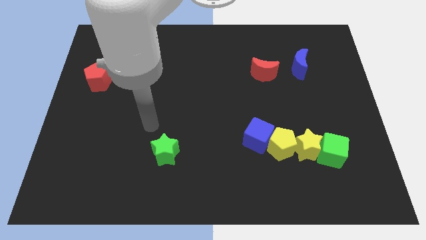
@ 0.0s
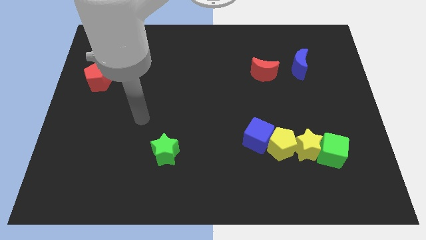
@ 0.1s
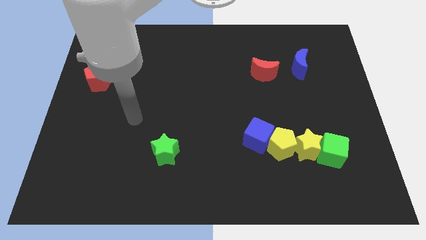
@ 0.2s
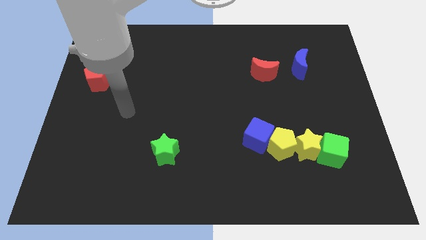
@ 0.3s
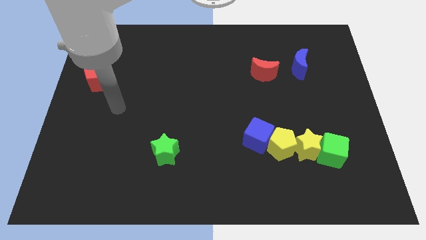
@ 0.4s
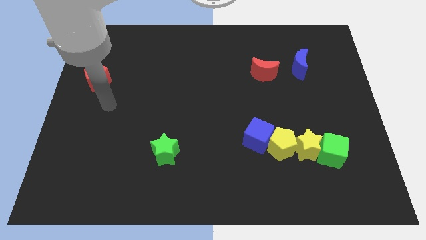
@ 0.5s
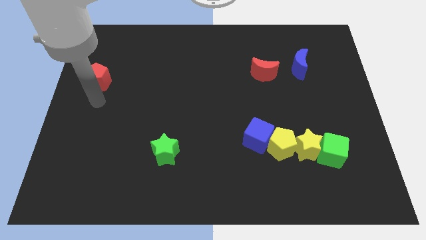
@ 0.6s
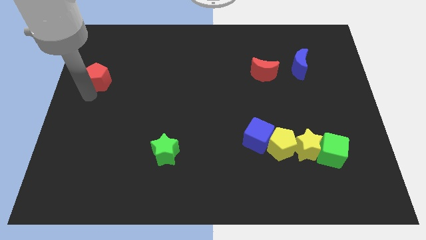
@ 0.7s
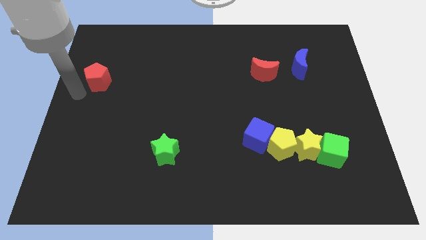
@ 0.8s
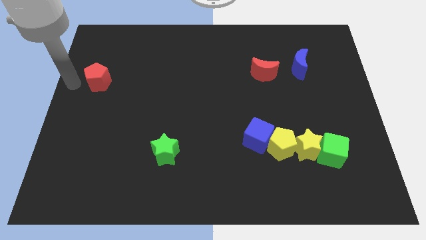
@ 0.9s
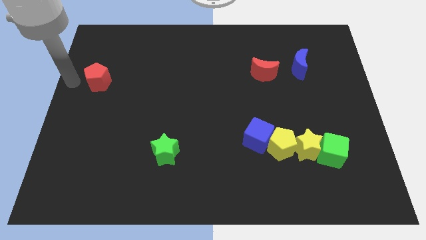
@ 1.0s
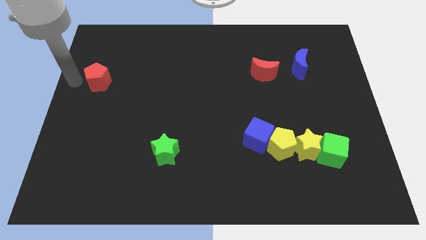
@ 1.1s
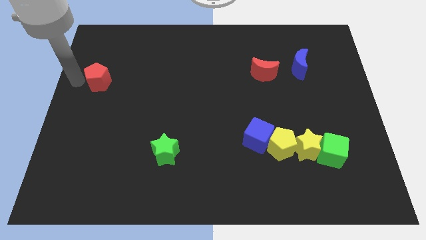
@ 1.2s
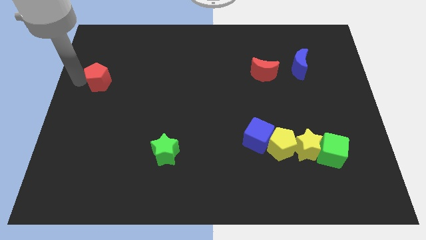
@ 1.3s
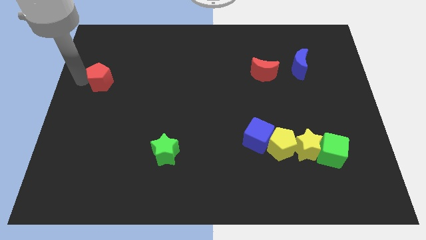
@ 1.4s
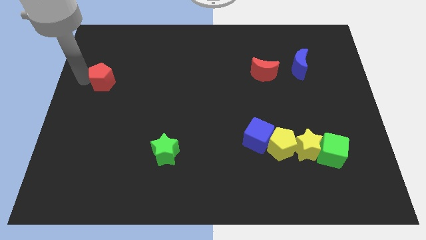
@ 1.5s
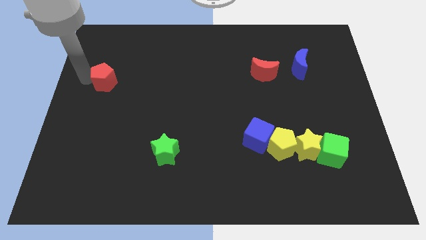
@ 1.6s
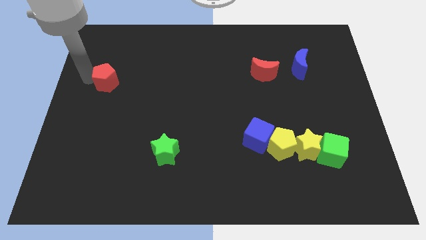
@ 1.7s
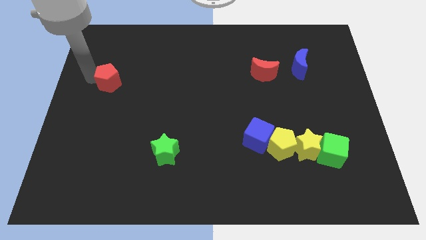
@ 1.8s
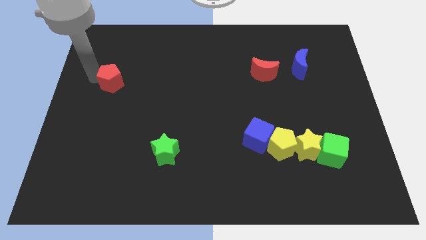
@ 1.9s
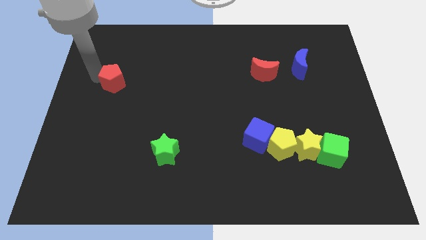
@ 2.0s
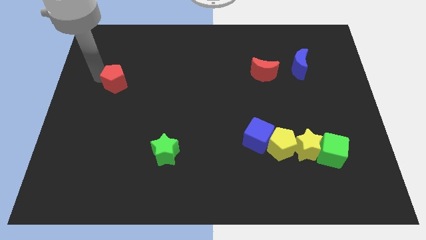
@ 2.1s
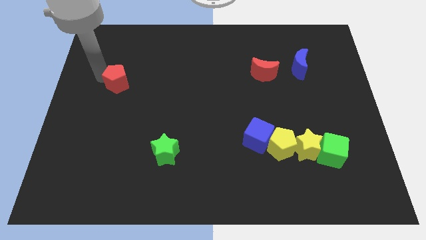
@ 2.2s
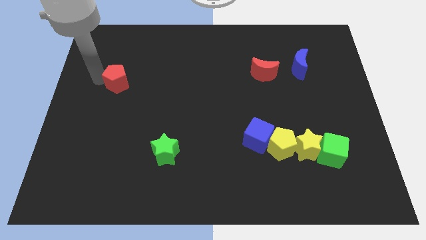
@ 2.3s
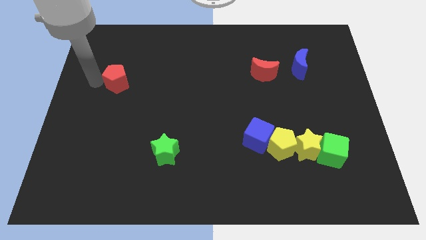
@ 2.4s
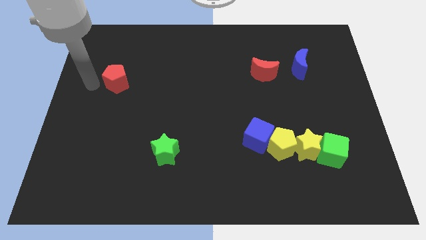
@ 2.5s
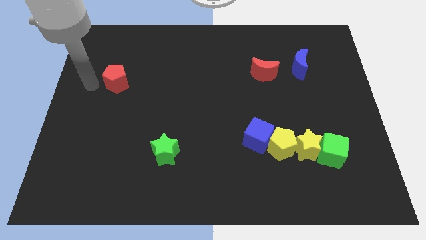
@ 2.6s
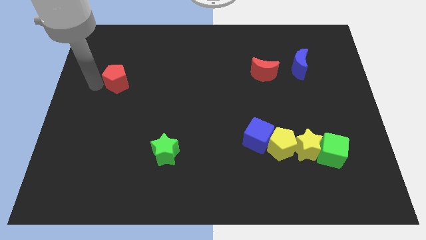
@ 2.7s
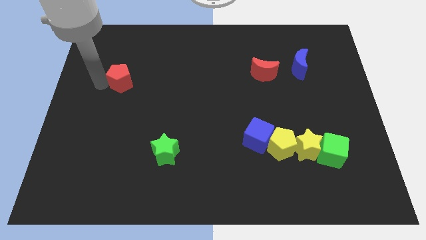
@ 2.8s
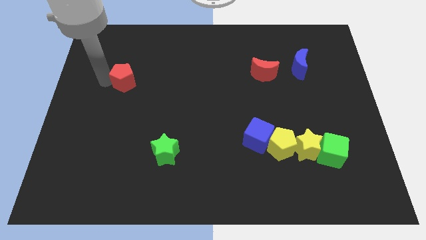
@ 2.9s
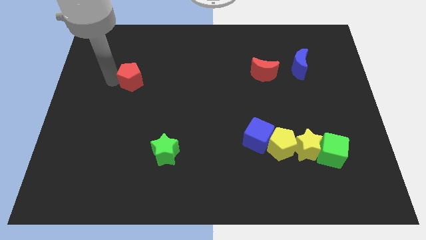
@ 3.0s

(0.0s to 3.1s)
move the red pentagon to the right somewhat

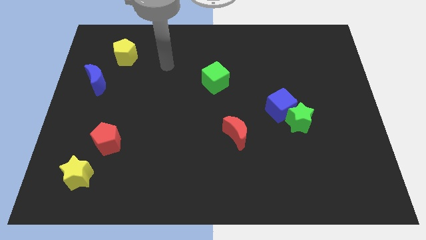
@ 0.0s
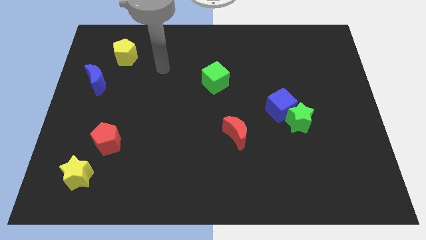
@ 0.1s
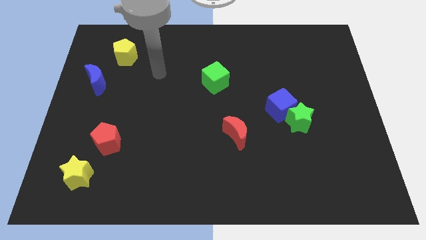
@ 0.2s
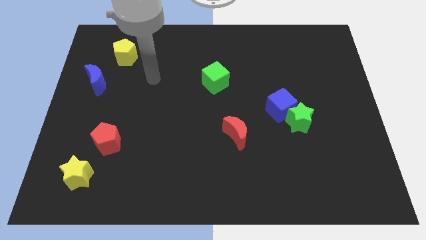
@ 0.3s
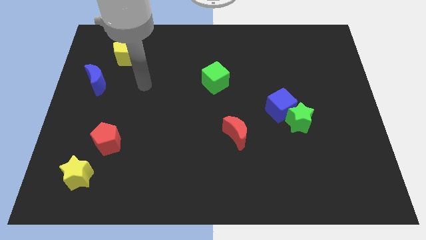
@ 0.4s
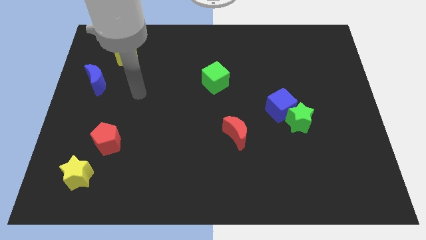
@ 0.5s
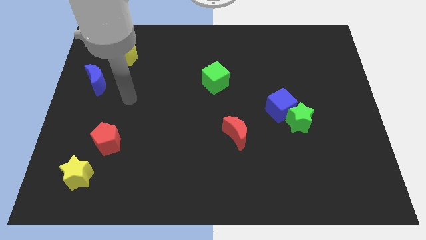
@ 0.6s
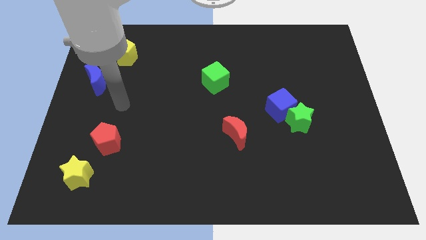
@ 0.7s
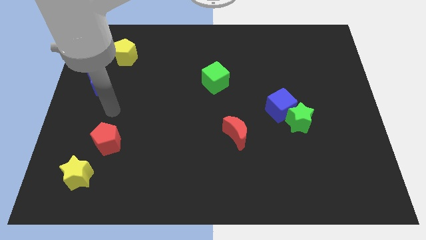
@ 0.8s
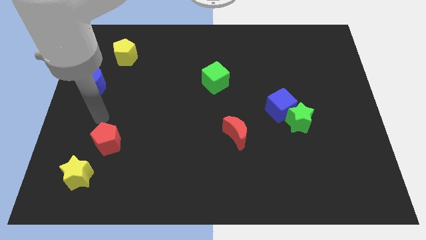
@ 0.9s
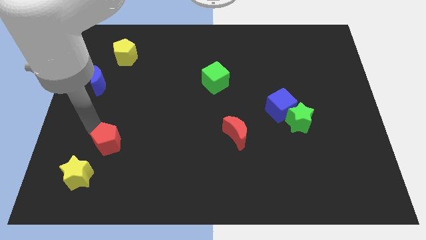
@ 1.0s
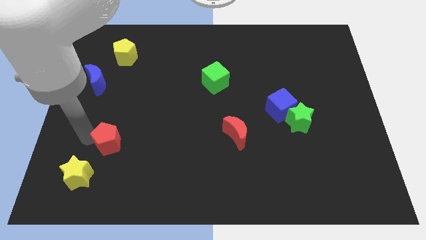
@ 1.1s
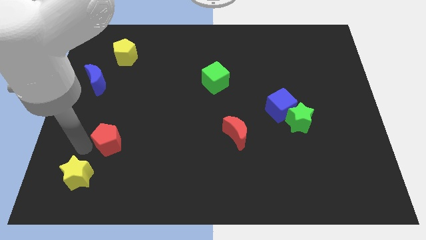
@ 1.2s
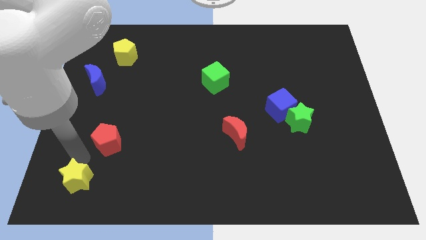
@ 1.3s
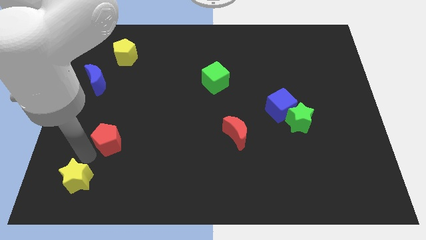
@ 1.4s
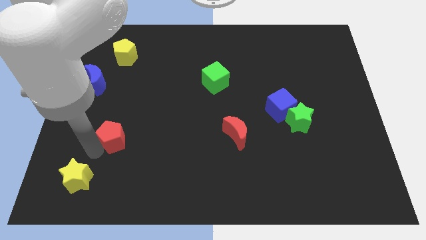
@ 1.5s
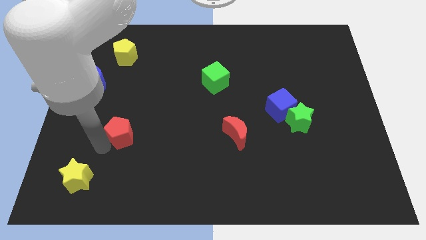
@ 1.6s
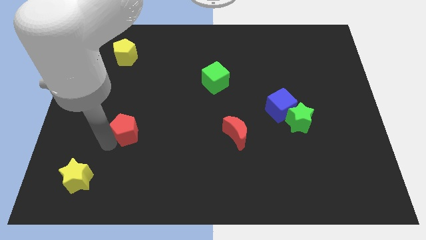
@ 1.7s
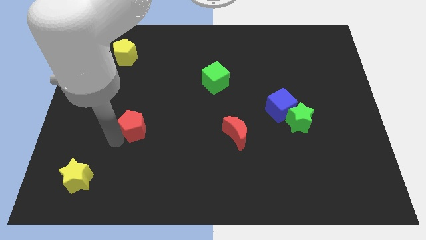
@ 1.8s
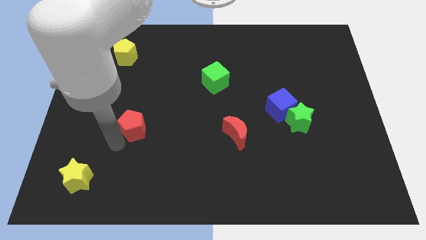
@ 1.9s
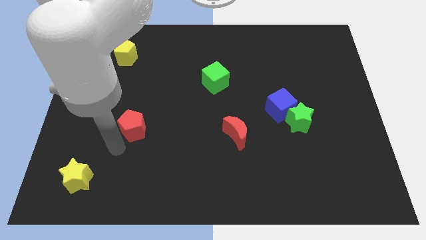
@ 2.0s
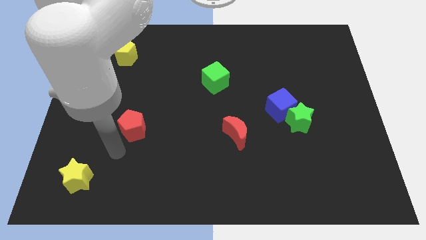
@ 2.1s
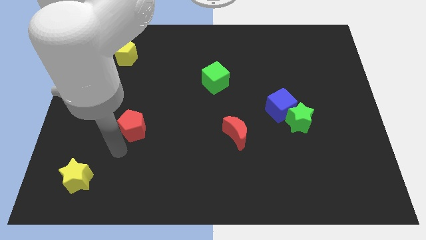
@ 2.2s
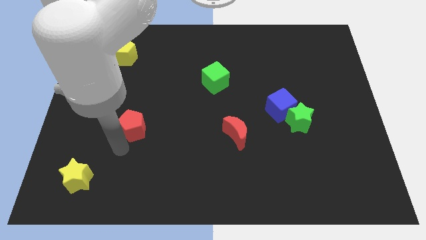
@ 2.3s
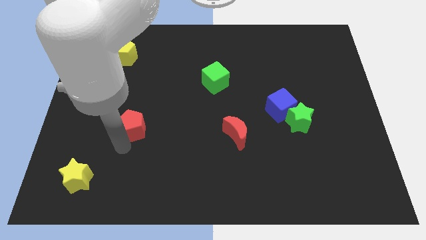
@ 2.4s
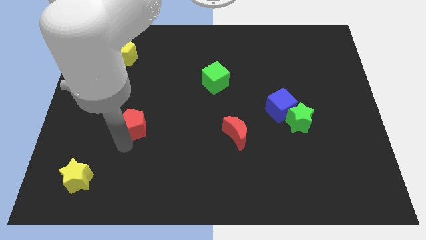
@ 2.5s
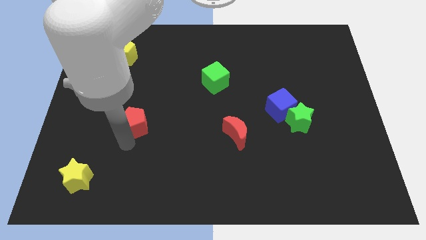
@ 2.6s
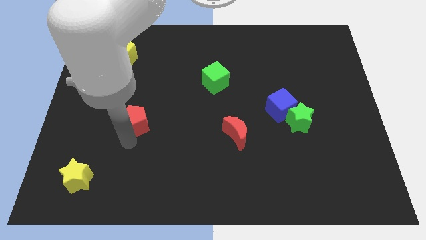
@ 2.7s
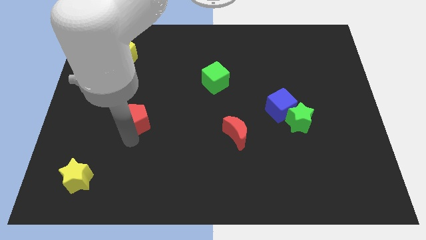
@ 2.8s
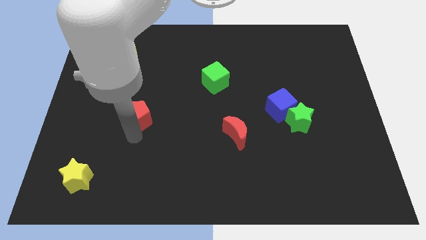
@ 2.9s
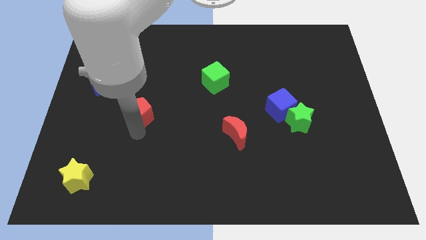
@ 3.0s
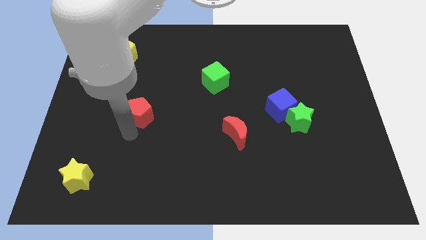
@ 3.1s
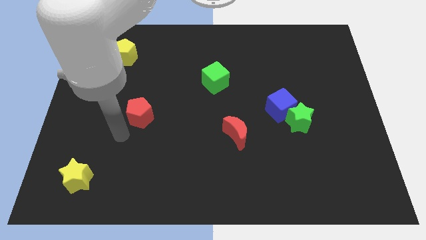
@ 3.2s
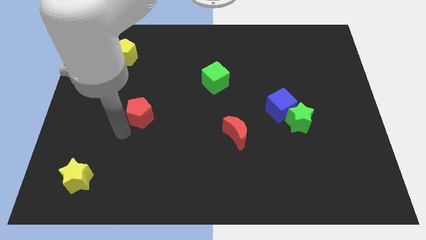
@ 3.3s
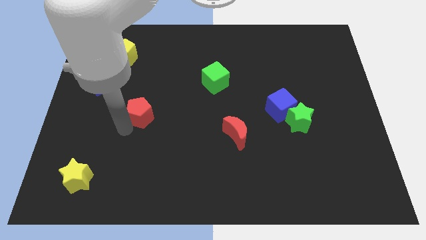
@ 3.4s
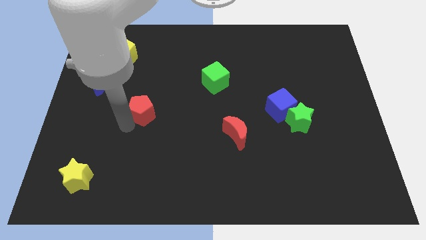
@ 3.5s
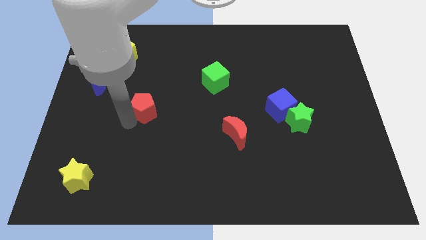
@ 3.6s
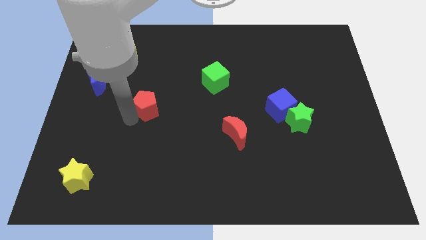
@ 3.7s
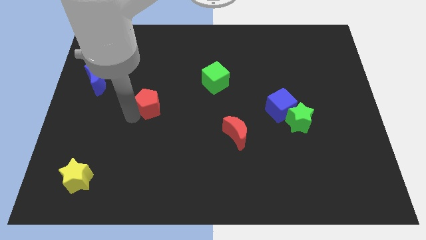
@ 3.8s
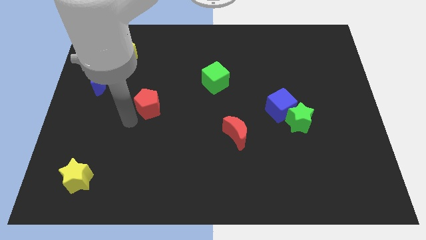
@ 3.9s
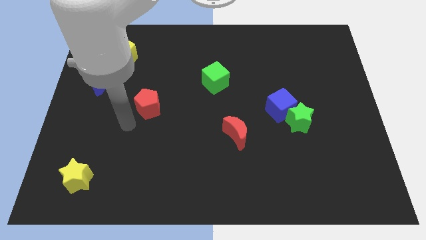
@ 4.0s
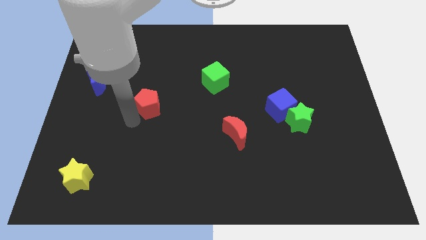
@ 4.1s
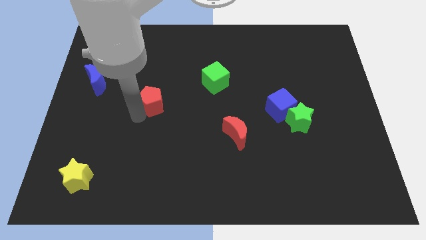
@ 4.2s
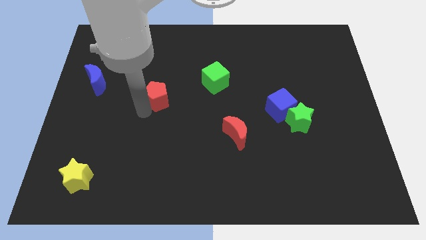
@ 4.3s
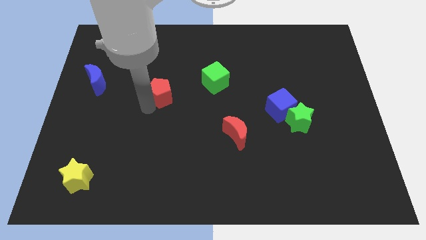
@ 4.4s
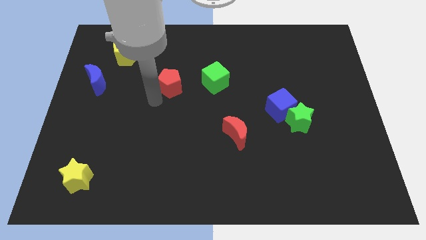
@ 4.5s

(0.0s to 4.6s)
move the red pentagon up and right diagonally
